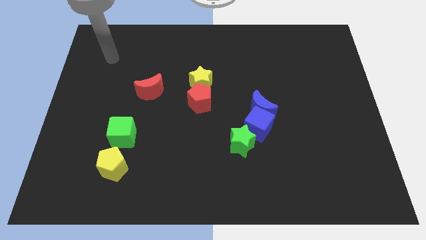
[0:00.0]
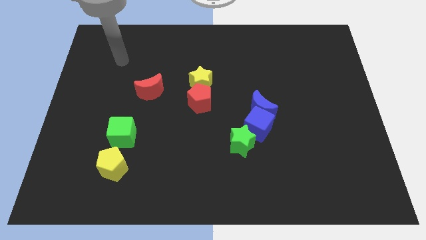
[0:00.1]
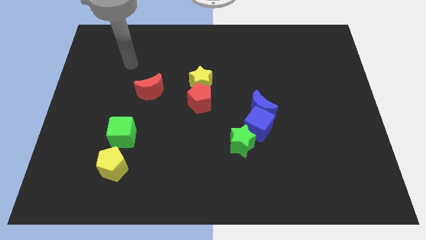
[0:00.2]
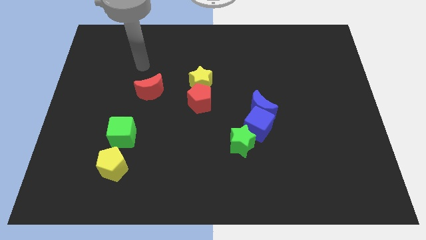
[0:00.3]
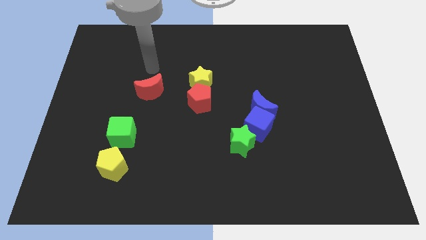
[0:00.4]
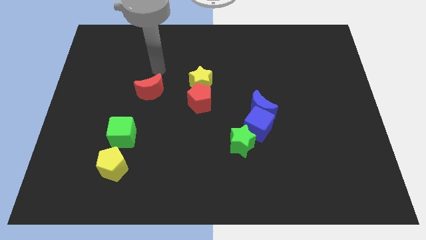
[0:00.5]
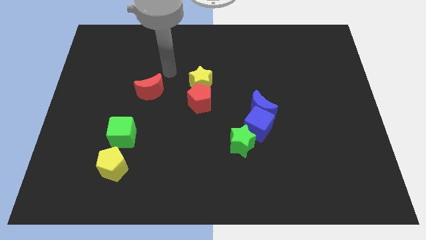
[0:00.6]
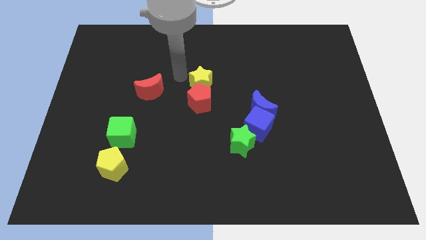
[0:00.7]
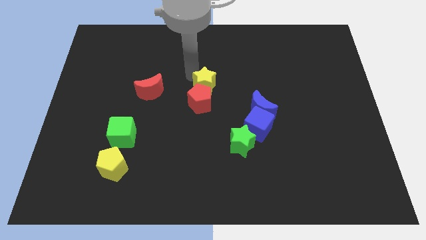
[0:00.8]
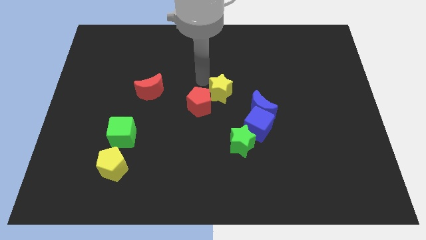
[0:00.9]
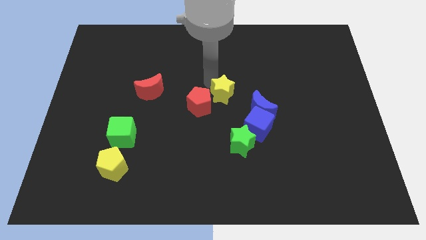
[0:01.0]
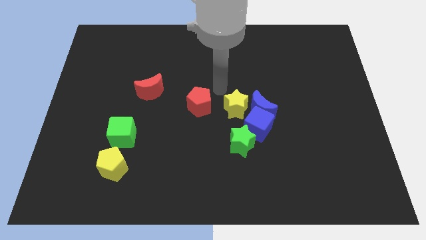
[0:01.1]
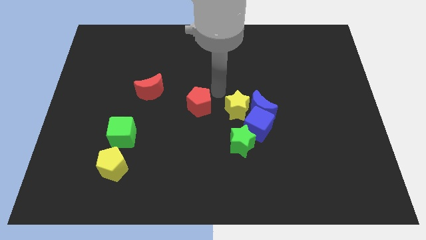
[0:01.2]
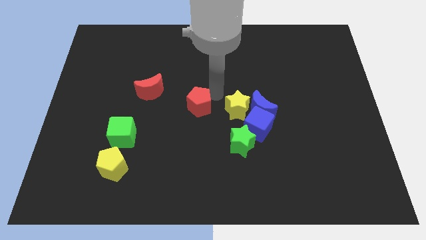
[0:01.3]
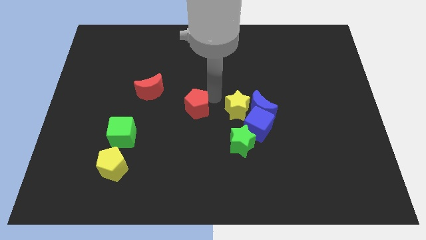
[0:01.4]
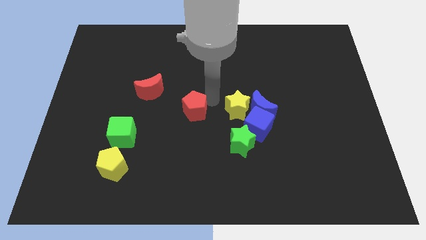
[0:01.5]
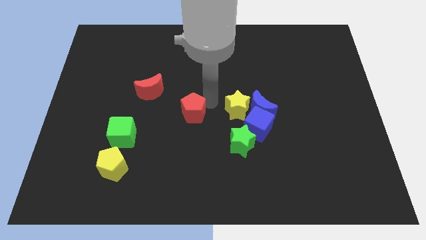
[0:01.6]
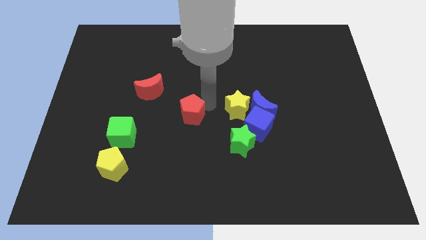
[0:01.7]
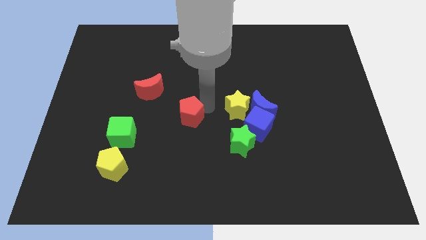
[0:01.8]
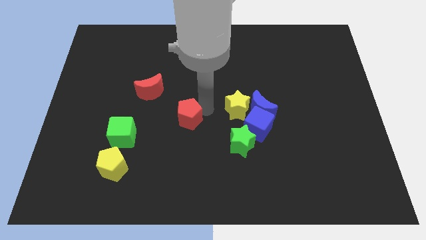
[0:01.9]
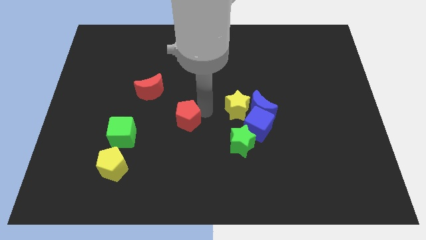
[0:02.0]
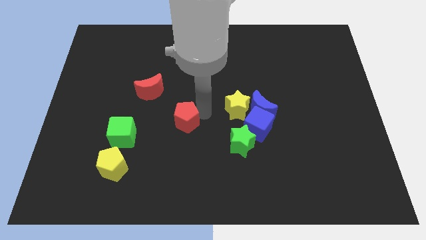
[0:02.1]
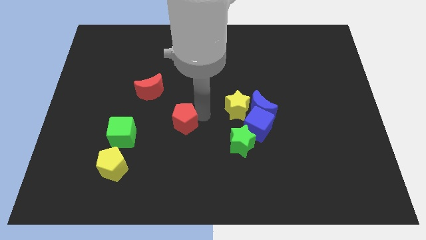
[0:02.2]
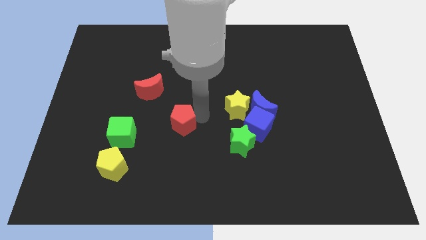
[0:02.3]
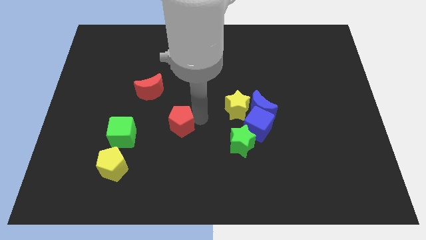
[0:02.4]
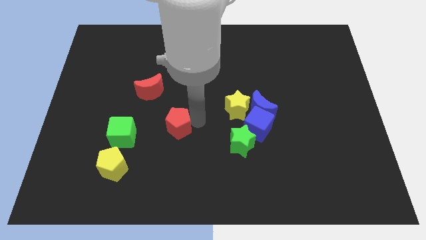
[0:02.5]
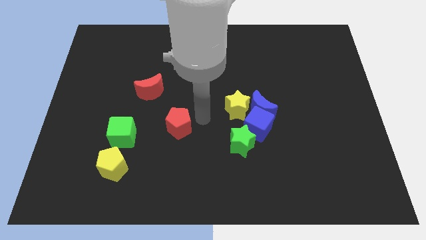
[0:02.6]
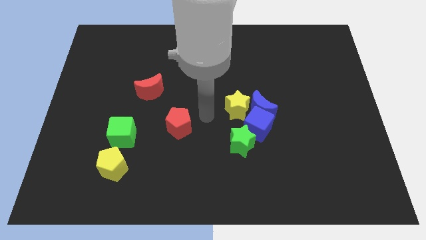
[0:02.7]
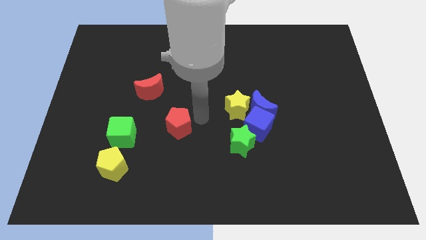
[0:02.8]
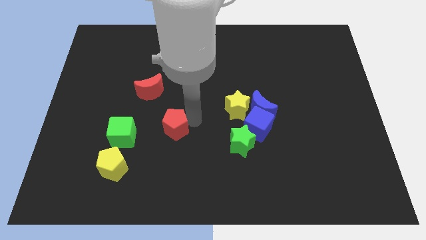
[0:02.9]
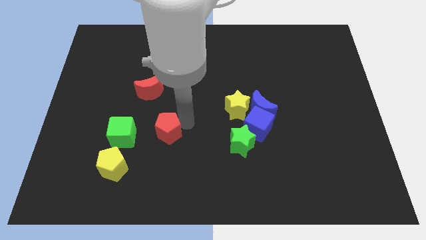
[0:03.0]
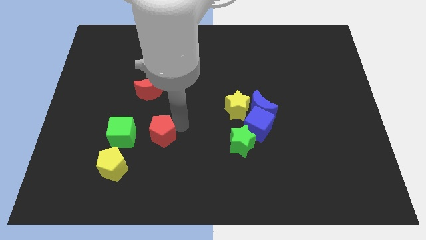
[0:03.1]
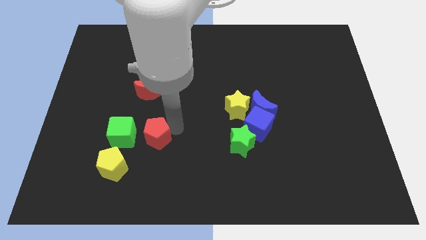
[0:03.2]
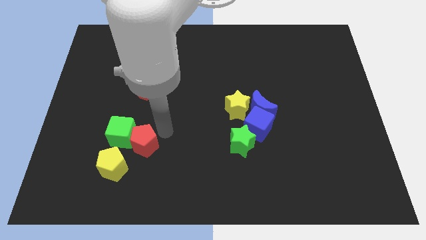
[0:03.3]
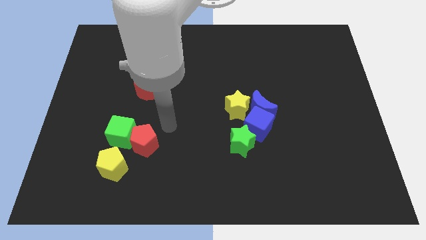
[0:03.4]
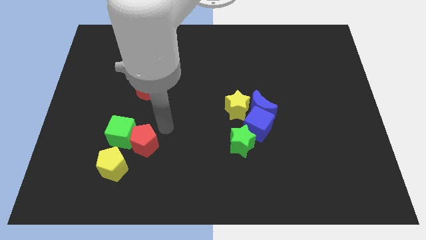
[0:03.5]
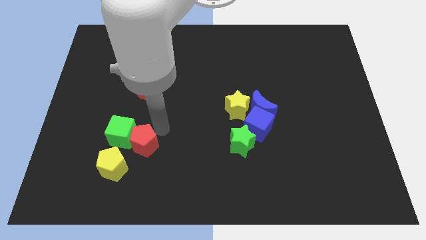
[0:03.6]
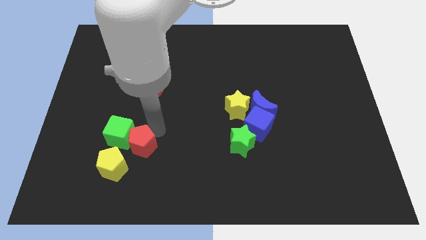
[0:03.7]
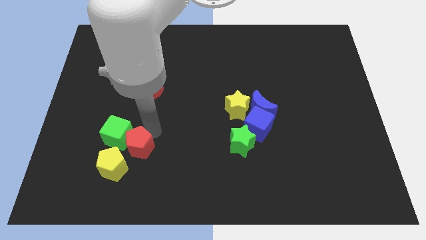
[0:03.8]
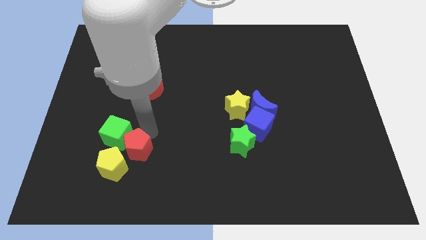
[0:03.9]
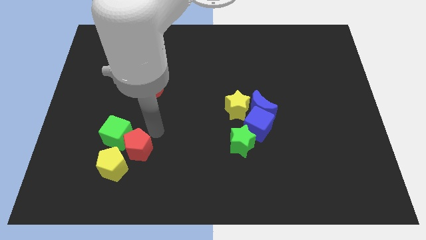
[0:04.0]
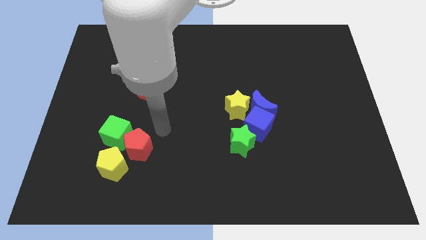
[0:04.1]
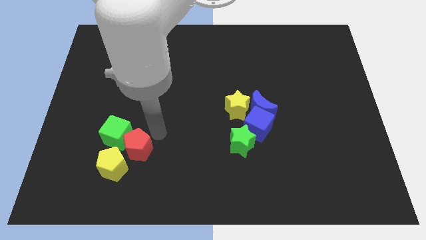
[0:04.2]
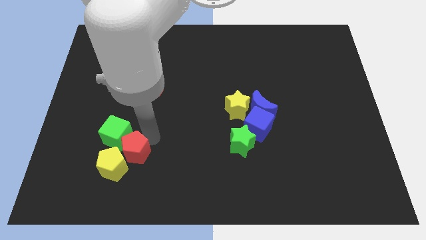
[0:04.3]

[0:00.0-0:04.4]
slide the red pentagon next to the yellow pentagon

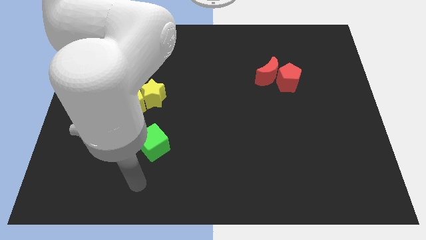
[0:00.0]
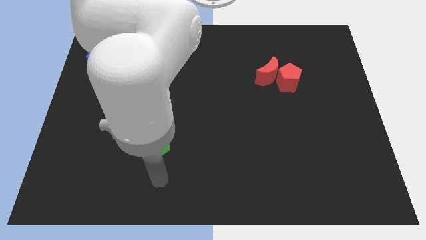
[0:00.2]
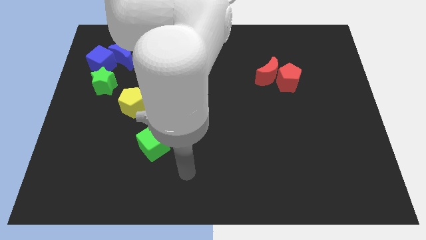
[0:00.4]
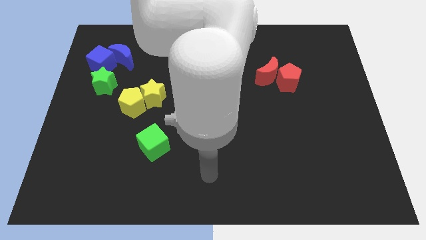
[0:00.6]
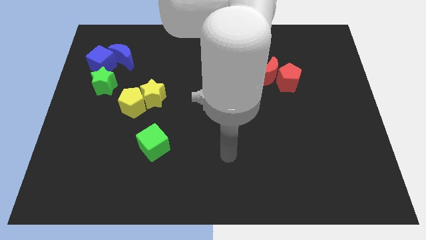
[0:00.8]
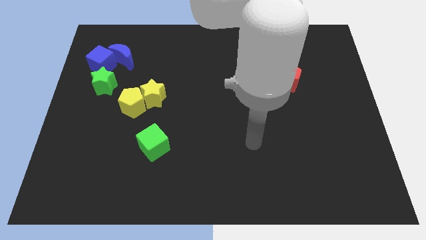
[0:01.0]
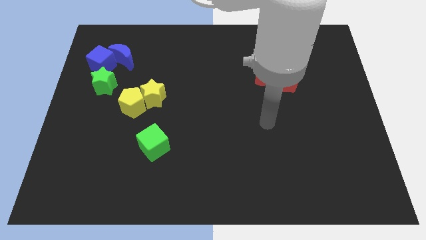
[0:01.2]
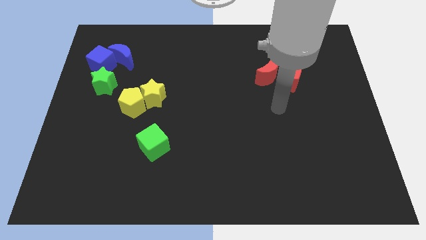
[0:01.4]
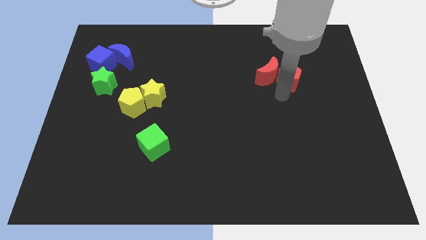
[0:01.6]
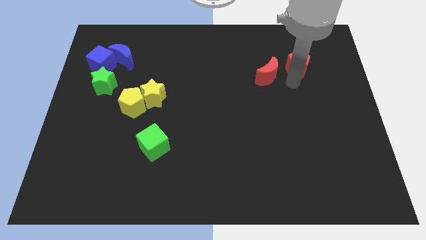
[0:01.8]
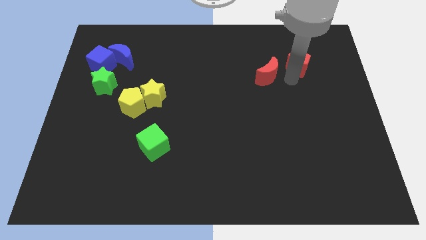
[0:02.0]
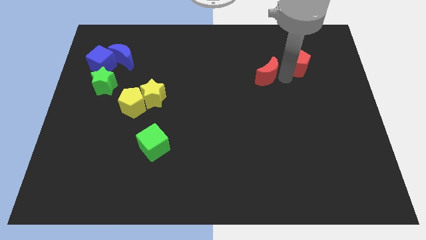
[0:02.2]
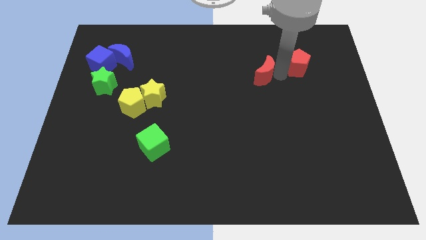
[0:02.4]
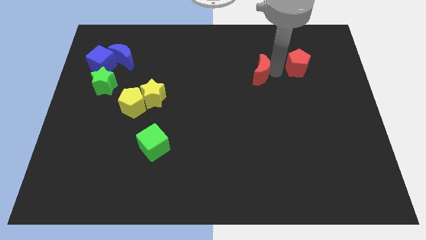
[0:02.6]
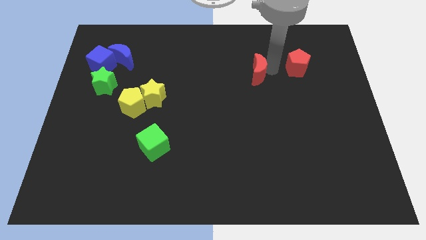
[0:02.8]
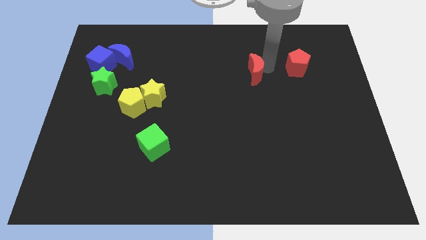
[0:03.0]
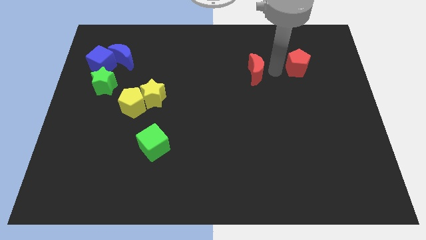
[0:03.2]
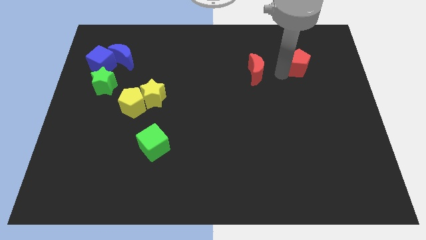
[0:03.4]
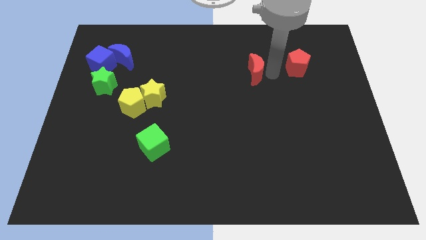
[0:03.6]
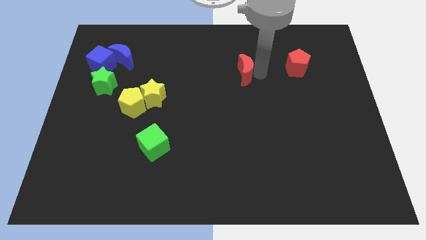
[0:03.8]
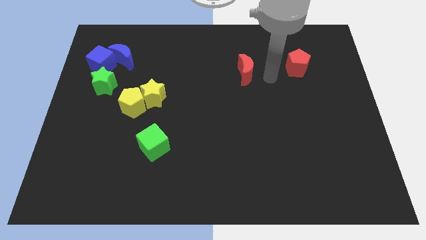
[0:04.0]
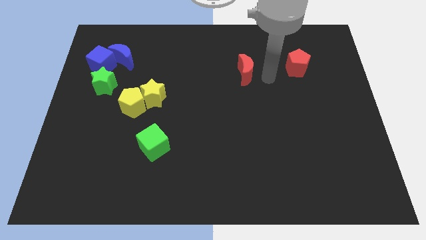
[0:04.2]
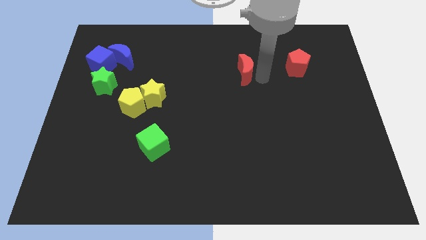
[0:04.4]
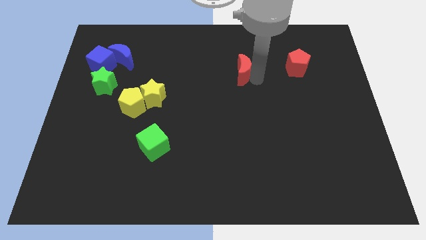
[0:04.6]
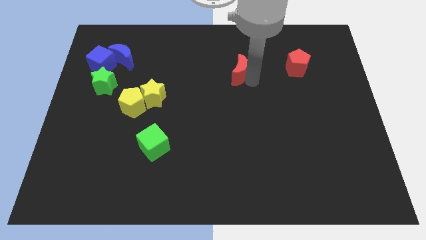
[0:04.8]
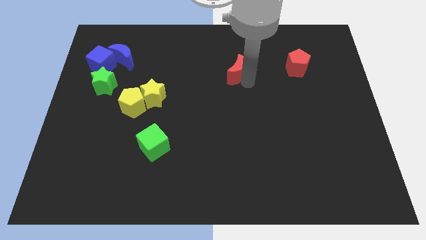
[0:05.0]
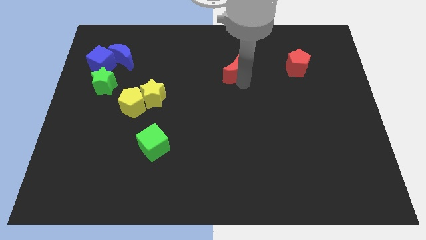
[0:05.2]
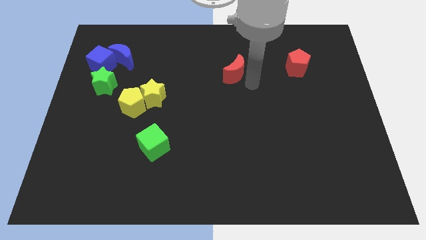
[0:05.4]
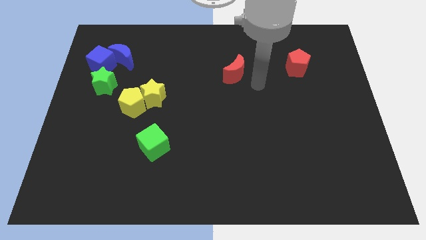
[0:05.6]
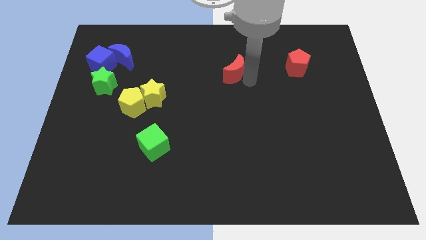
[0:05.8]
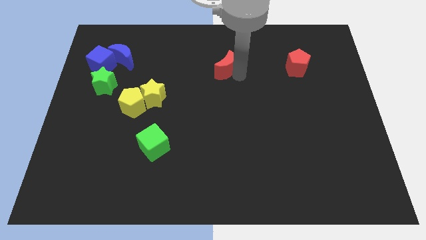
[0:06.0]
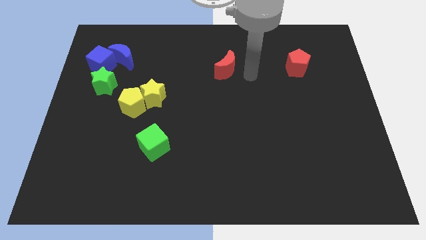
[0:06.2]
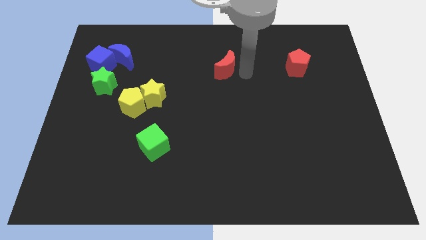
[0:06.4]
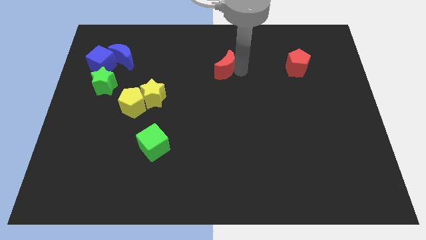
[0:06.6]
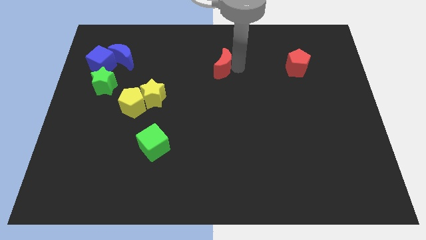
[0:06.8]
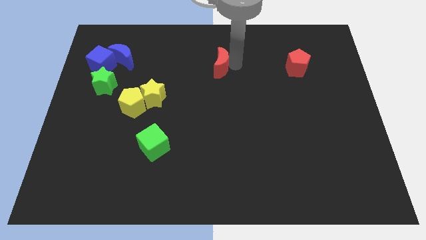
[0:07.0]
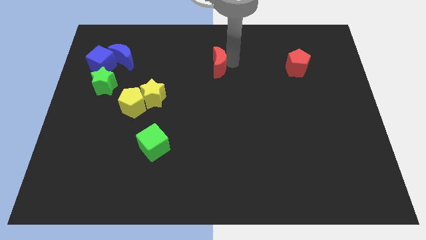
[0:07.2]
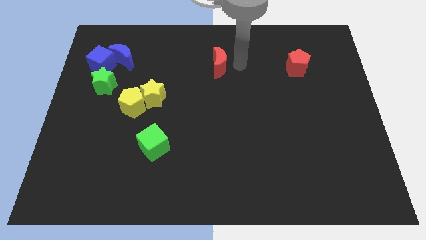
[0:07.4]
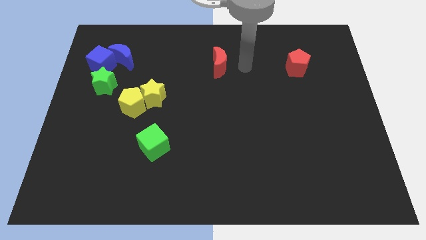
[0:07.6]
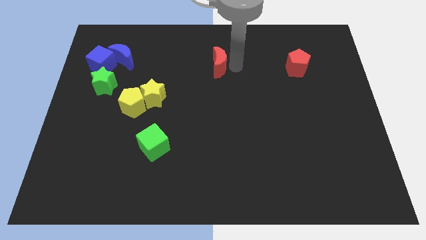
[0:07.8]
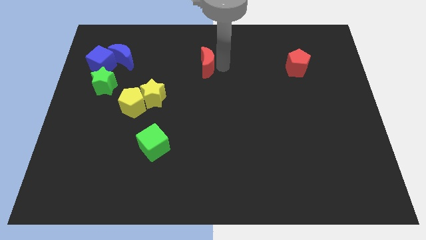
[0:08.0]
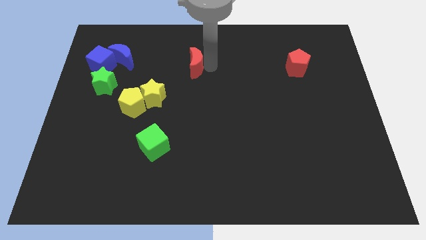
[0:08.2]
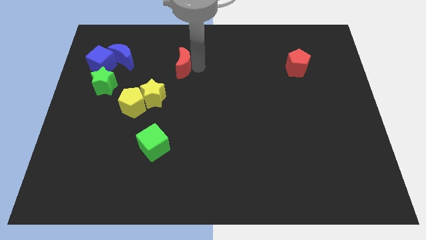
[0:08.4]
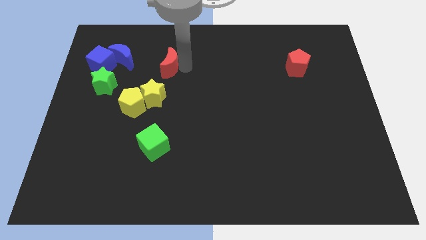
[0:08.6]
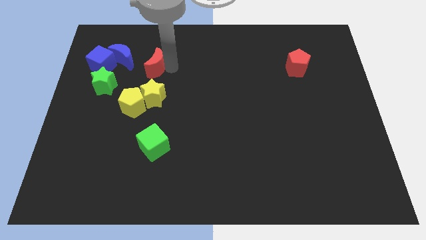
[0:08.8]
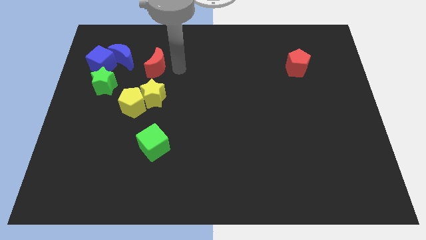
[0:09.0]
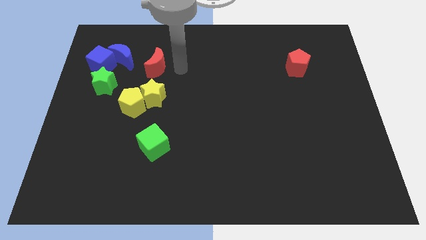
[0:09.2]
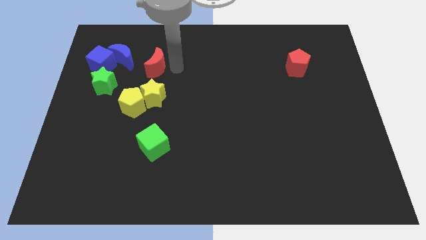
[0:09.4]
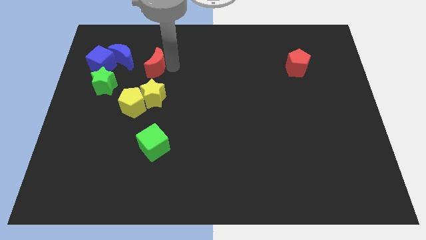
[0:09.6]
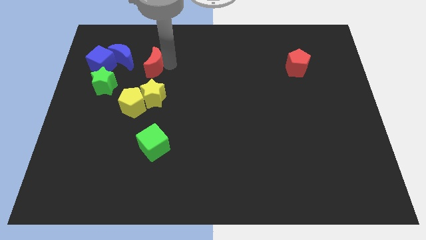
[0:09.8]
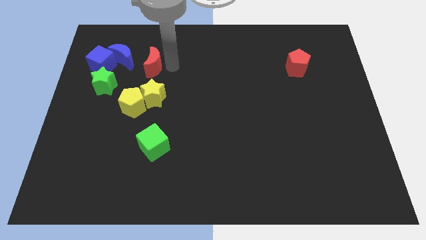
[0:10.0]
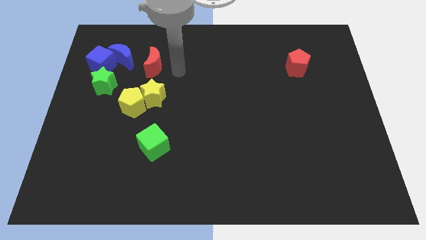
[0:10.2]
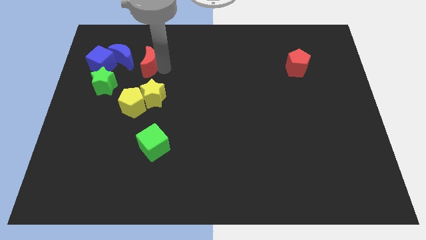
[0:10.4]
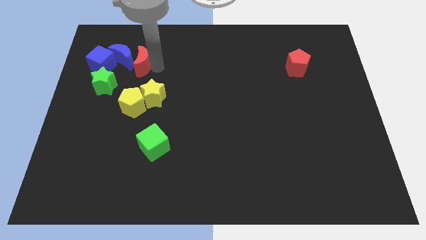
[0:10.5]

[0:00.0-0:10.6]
put the red moon towards the blue moon
